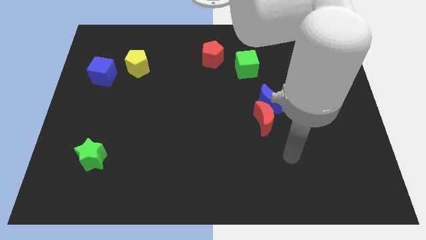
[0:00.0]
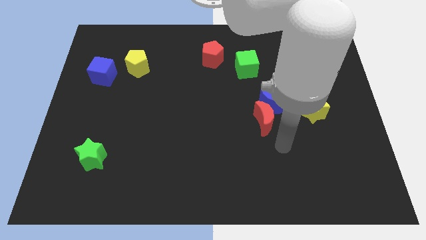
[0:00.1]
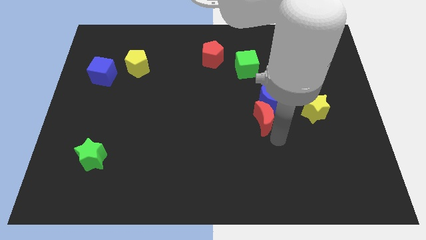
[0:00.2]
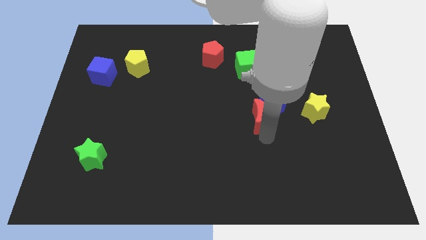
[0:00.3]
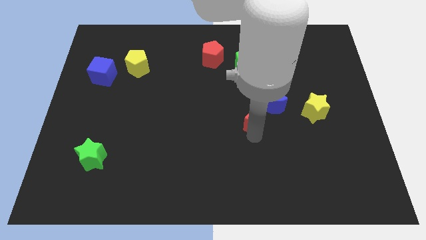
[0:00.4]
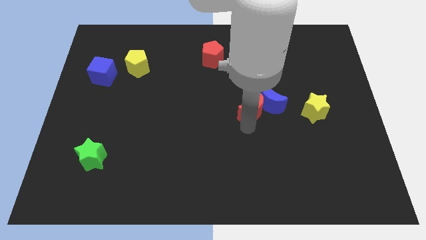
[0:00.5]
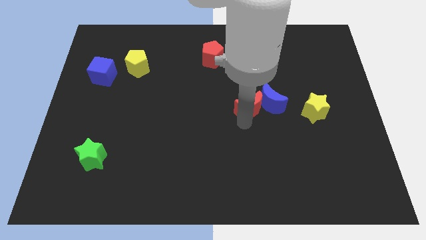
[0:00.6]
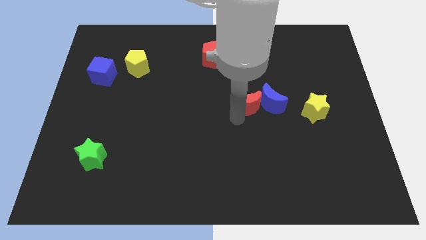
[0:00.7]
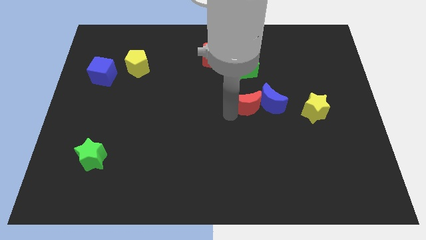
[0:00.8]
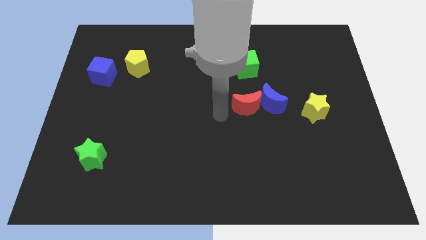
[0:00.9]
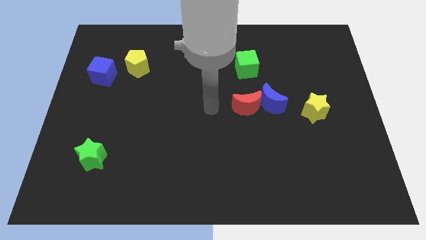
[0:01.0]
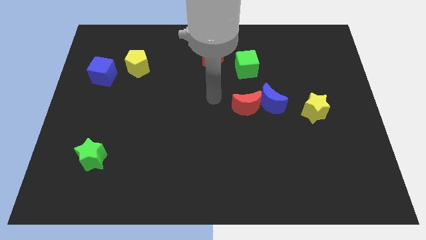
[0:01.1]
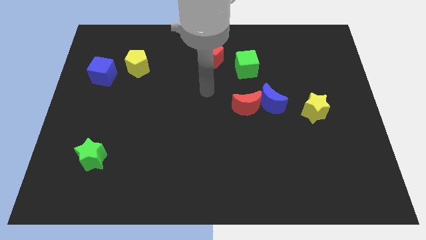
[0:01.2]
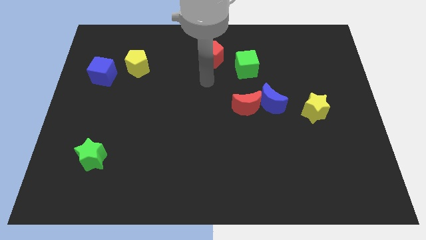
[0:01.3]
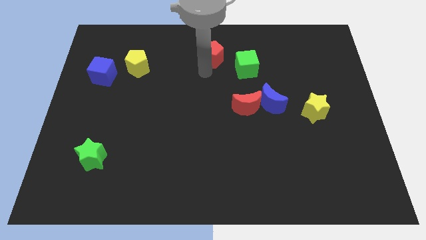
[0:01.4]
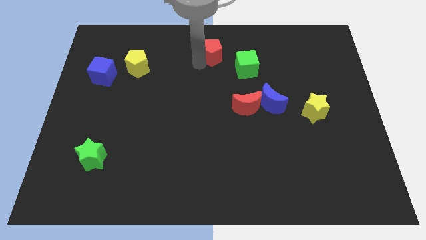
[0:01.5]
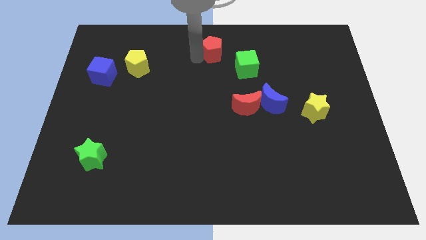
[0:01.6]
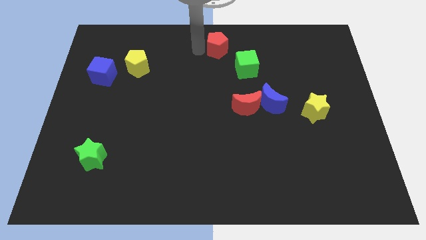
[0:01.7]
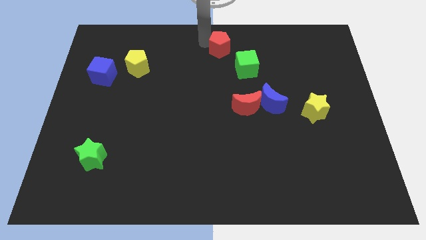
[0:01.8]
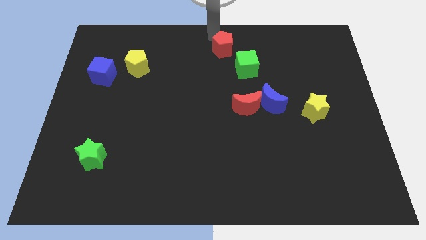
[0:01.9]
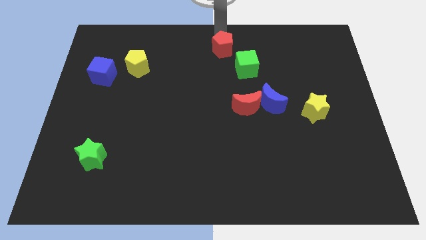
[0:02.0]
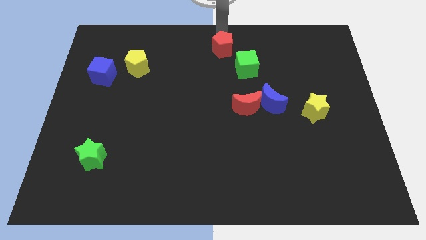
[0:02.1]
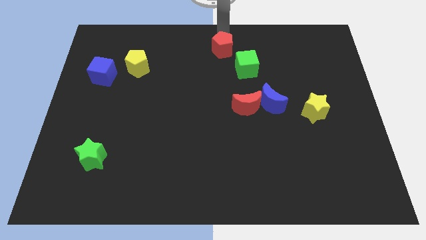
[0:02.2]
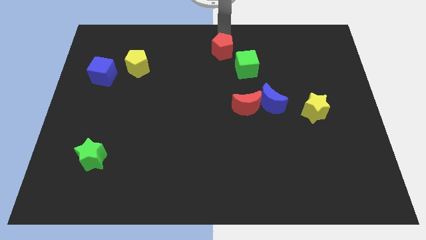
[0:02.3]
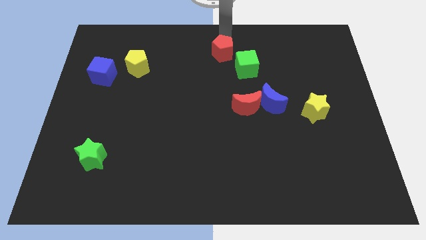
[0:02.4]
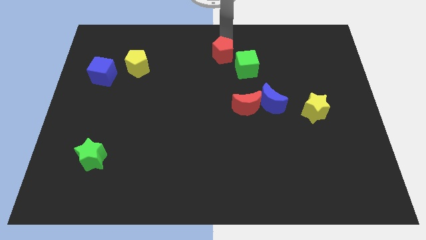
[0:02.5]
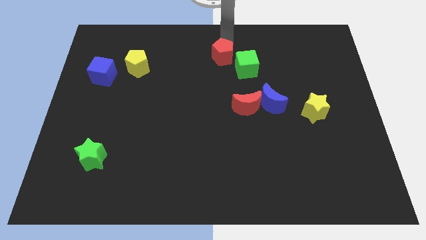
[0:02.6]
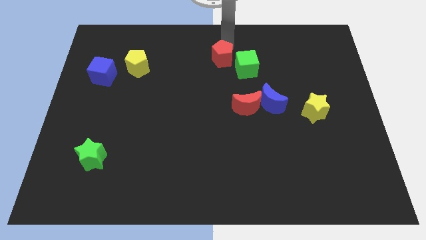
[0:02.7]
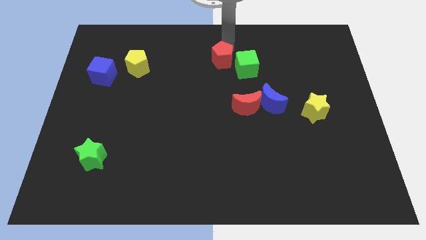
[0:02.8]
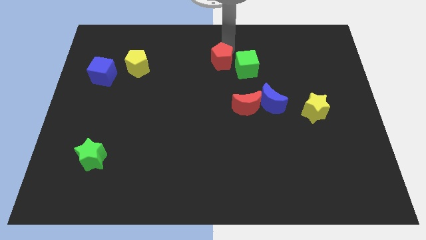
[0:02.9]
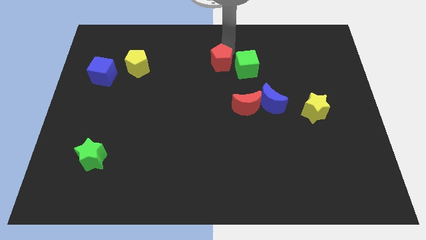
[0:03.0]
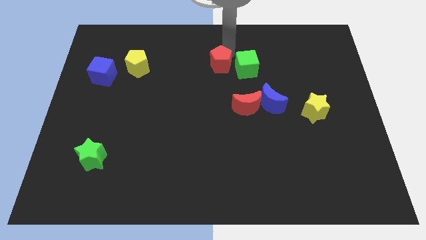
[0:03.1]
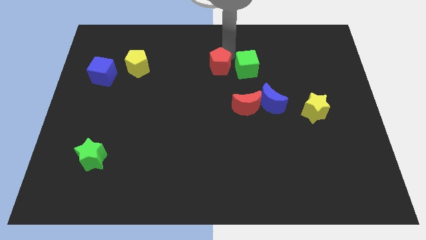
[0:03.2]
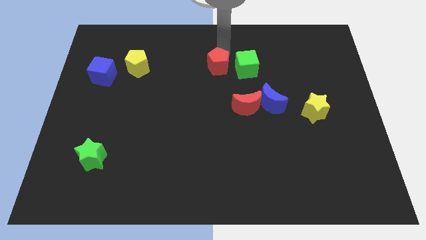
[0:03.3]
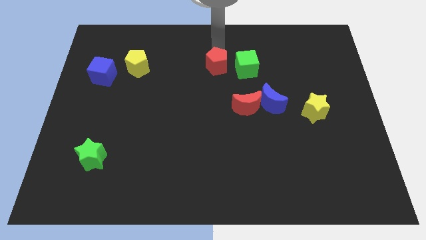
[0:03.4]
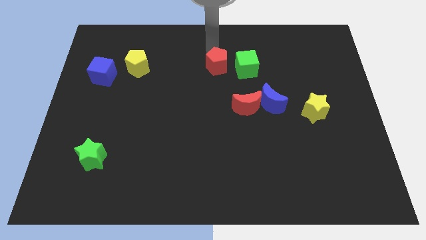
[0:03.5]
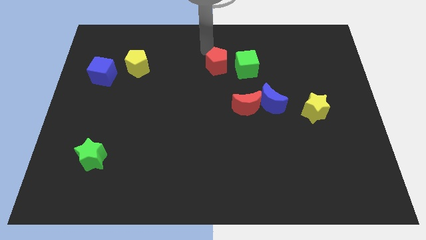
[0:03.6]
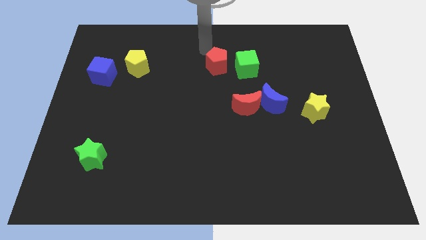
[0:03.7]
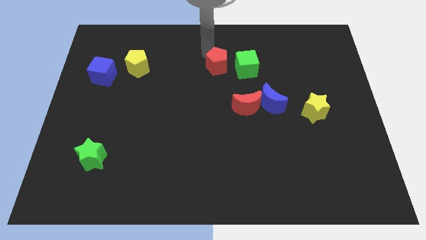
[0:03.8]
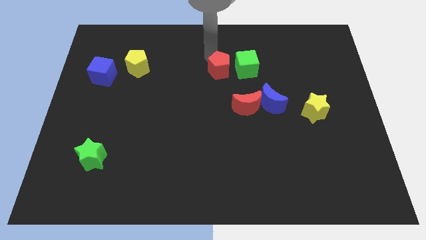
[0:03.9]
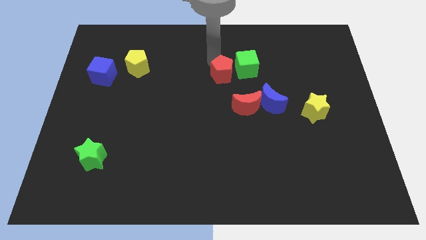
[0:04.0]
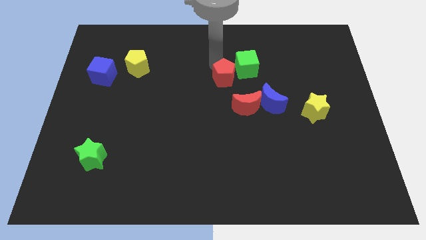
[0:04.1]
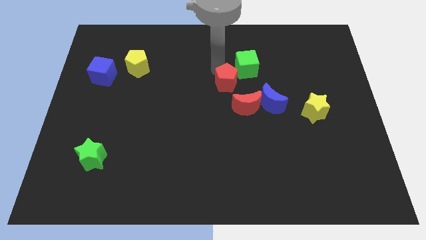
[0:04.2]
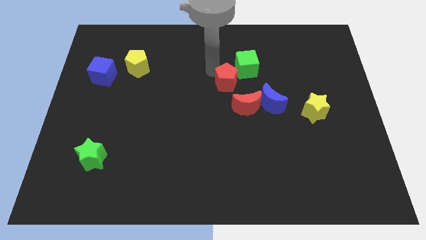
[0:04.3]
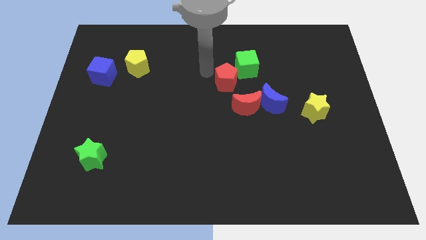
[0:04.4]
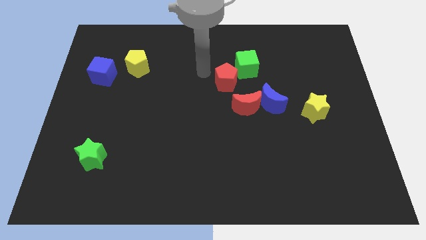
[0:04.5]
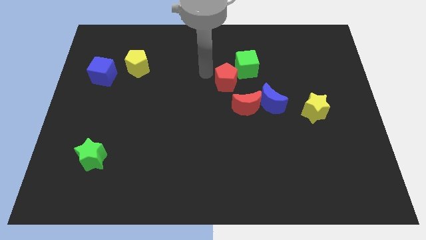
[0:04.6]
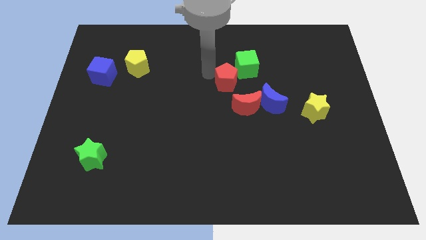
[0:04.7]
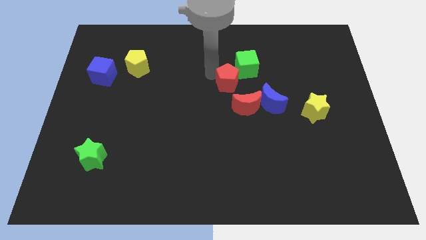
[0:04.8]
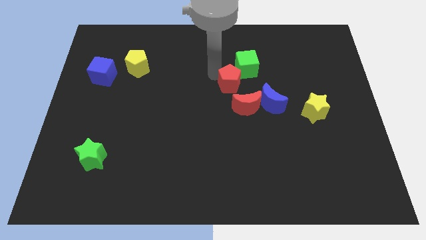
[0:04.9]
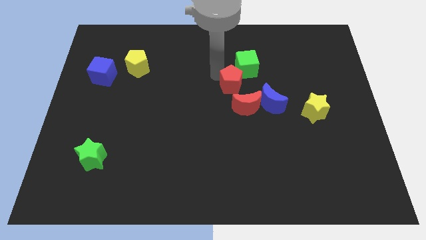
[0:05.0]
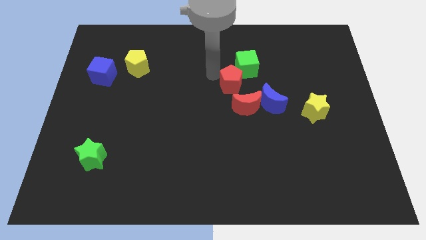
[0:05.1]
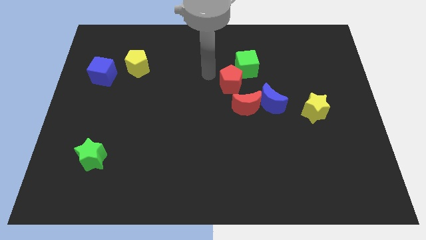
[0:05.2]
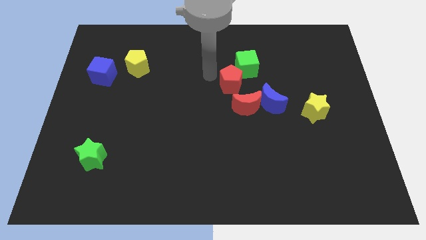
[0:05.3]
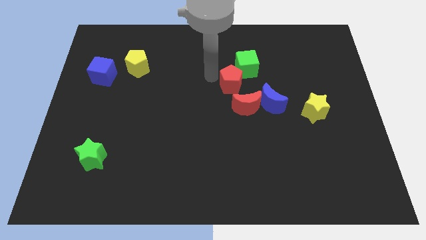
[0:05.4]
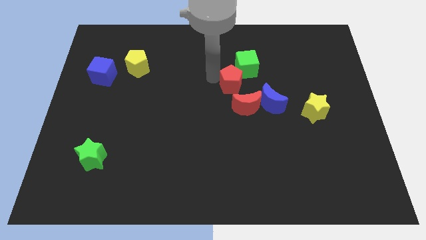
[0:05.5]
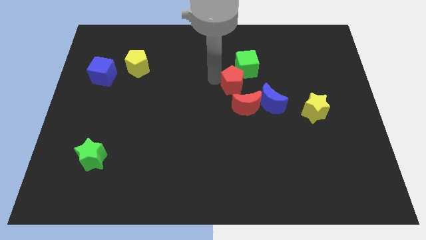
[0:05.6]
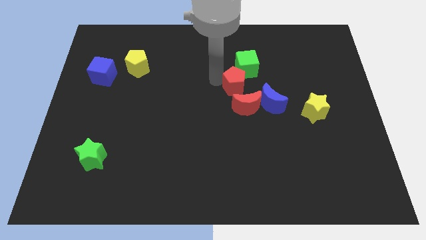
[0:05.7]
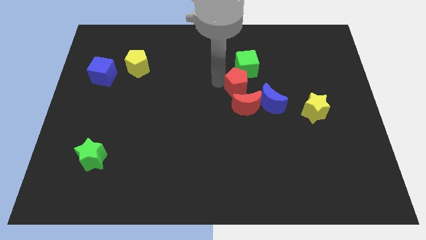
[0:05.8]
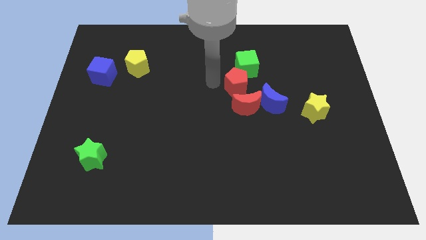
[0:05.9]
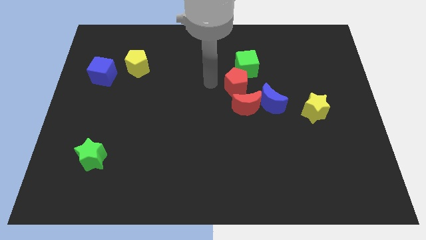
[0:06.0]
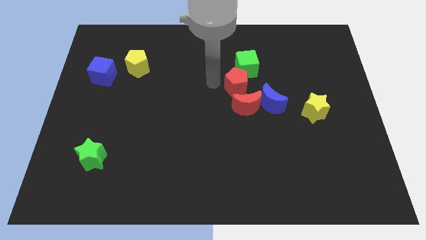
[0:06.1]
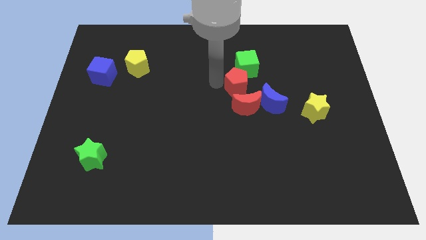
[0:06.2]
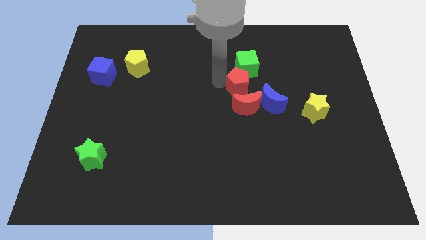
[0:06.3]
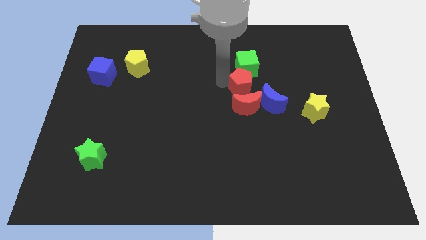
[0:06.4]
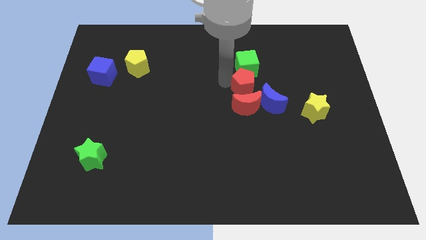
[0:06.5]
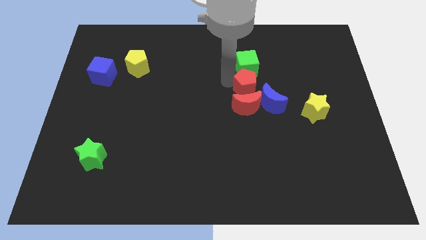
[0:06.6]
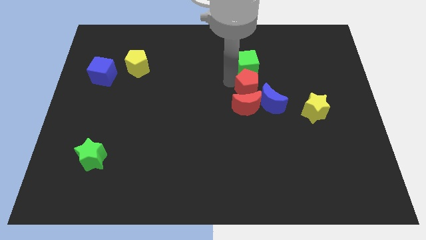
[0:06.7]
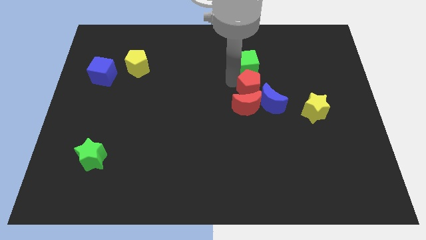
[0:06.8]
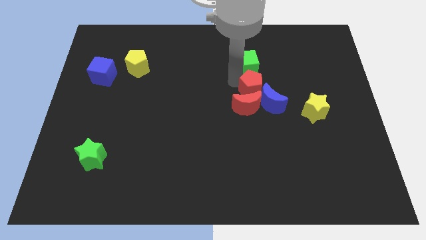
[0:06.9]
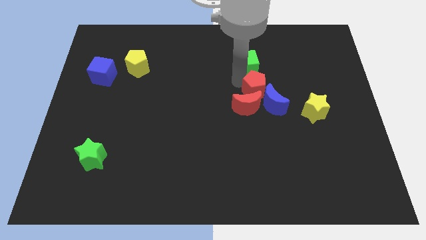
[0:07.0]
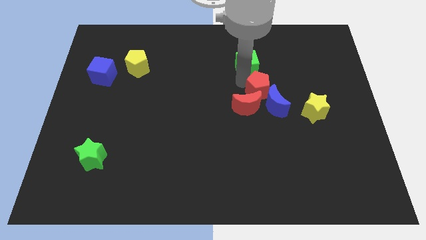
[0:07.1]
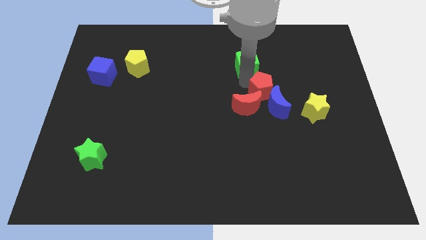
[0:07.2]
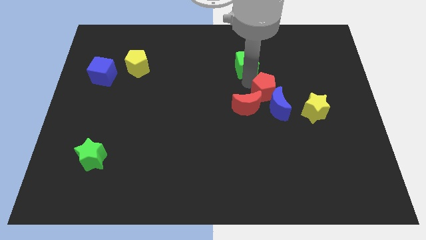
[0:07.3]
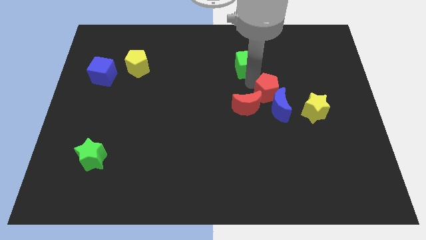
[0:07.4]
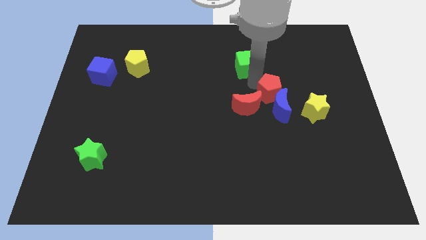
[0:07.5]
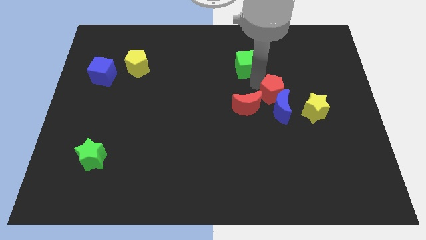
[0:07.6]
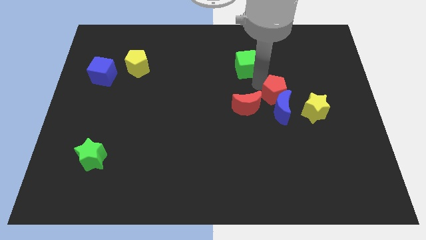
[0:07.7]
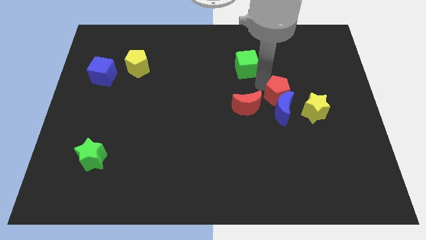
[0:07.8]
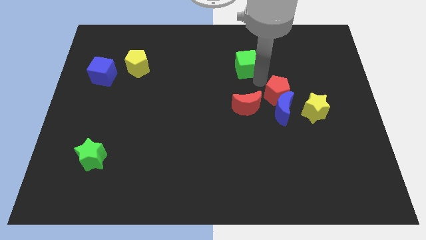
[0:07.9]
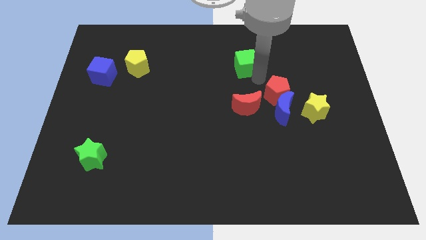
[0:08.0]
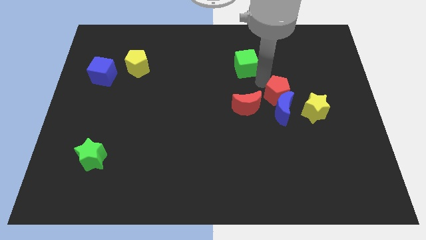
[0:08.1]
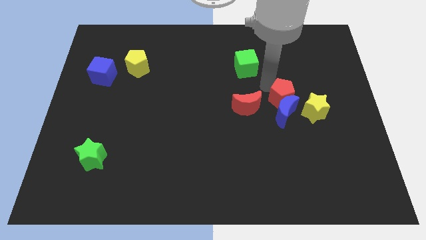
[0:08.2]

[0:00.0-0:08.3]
slide the red pentagon downwards and to the right
